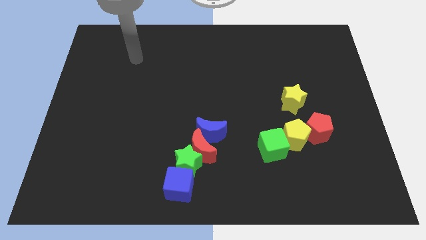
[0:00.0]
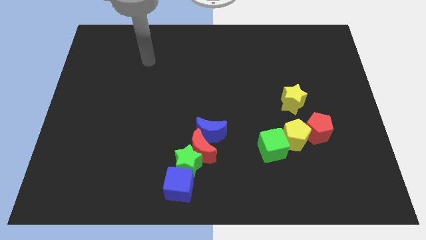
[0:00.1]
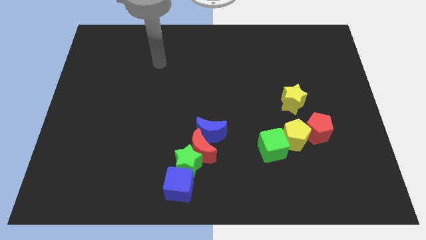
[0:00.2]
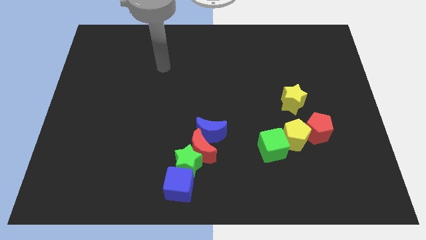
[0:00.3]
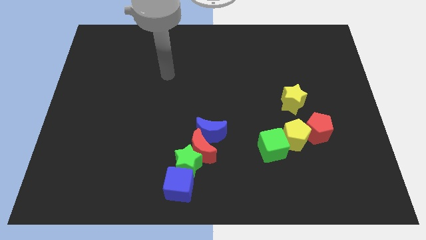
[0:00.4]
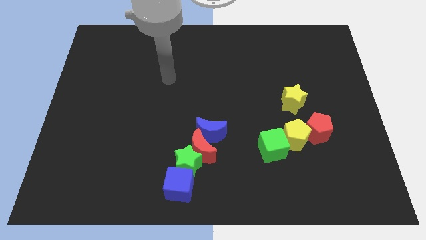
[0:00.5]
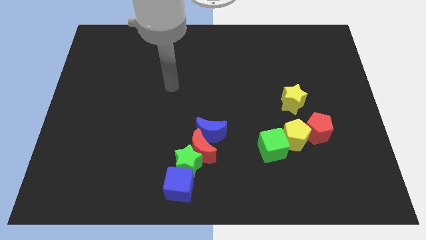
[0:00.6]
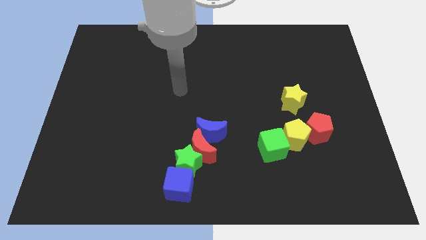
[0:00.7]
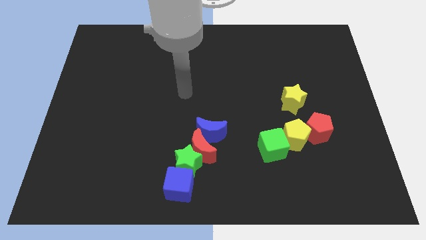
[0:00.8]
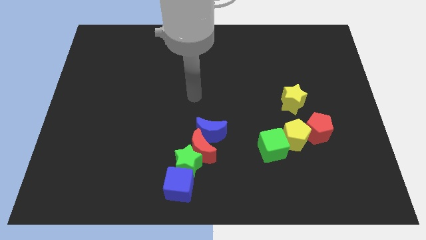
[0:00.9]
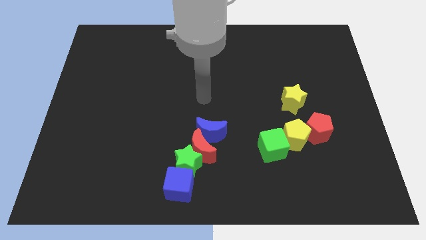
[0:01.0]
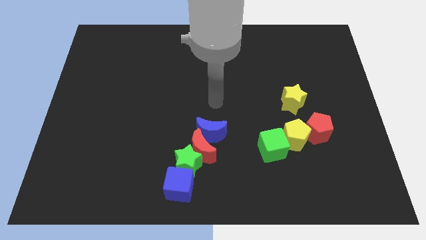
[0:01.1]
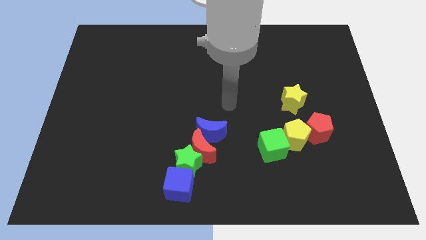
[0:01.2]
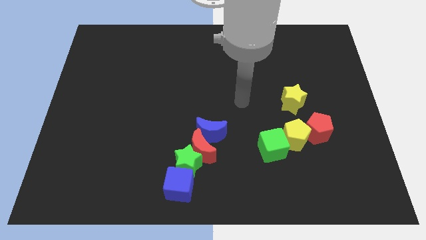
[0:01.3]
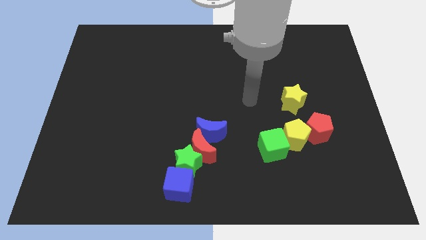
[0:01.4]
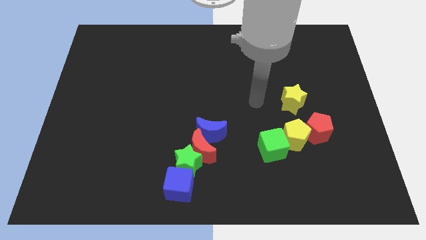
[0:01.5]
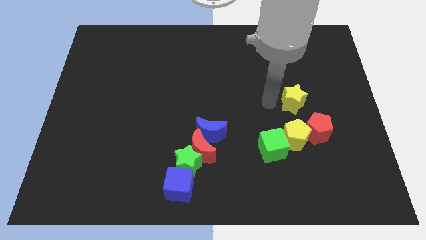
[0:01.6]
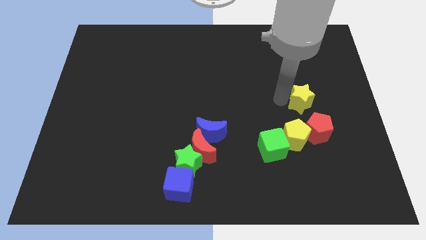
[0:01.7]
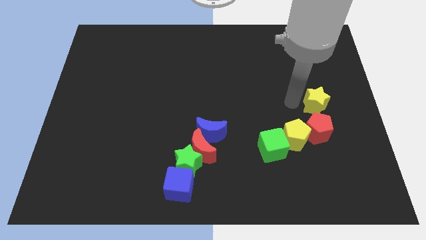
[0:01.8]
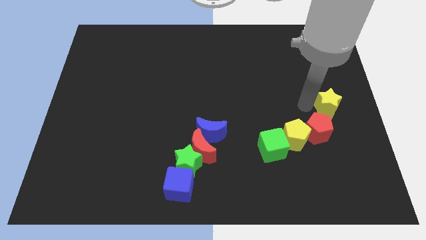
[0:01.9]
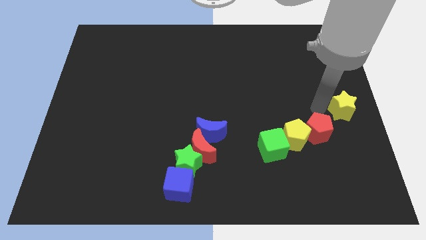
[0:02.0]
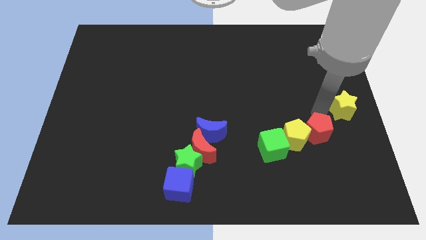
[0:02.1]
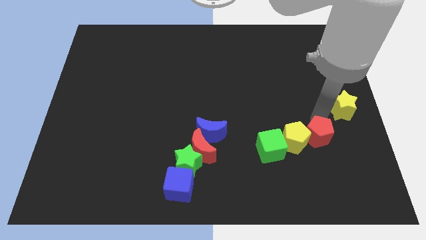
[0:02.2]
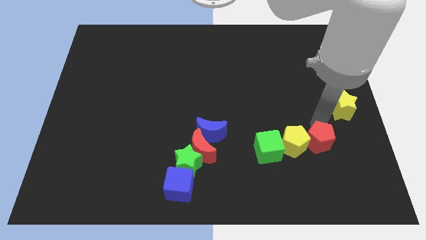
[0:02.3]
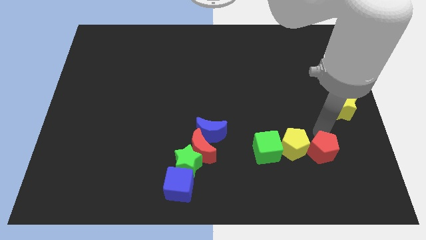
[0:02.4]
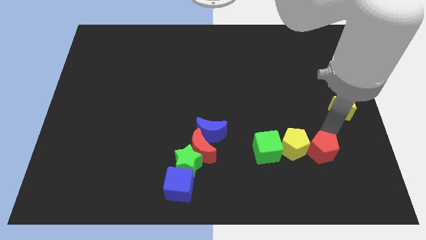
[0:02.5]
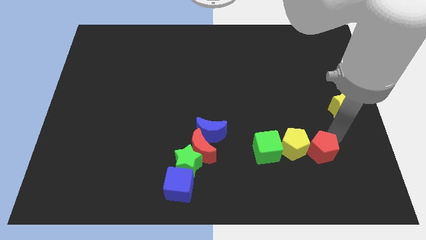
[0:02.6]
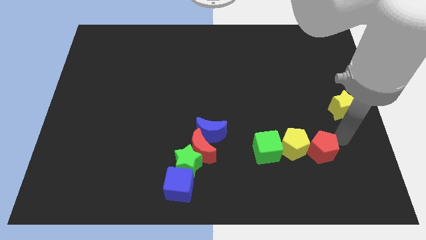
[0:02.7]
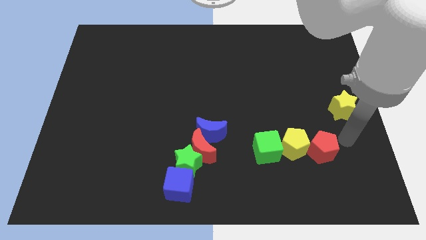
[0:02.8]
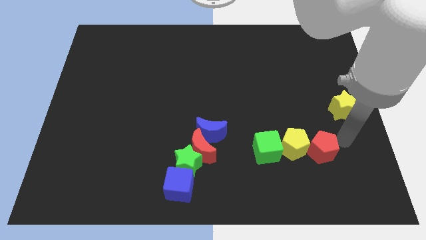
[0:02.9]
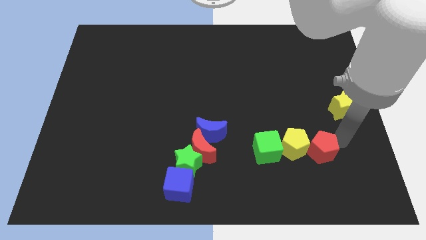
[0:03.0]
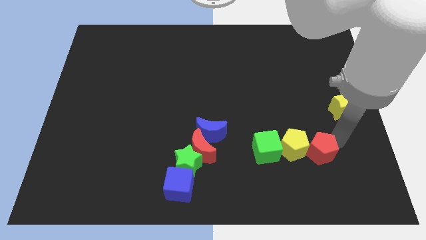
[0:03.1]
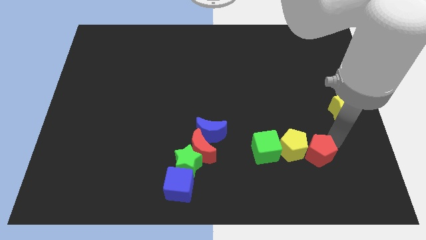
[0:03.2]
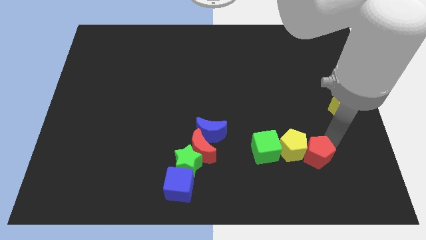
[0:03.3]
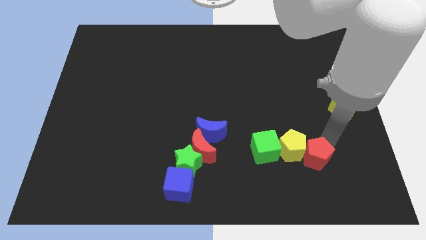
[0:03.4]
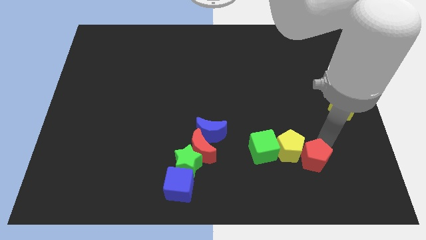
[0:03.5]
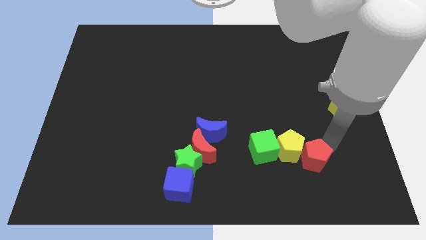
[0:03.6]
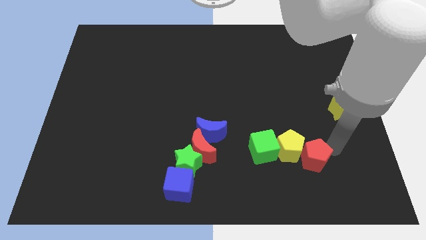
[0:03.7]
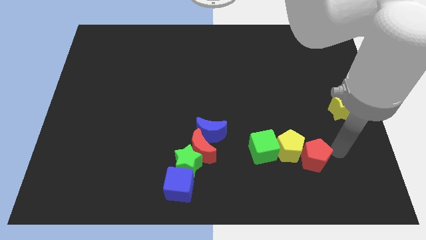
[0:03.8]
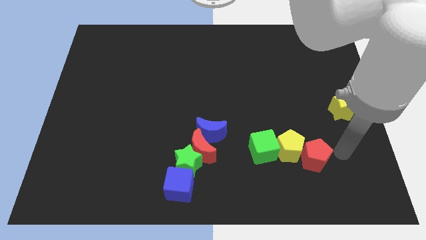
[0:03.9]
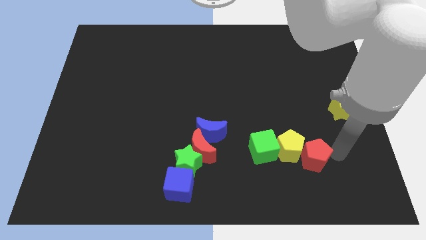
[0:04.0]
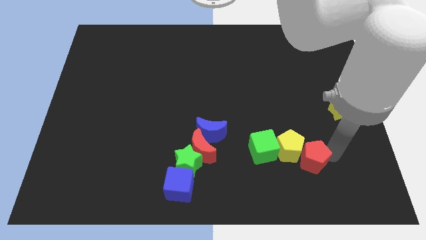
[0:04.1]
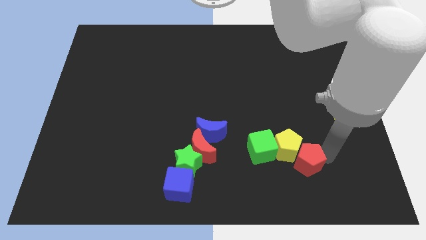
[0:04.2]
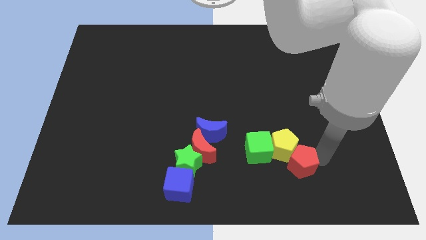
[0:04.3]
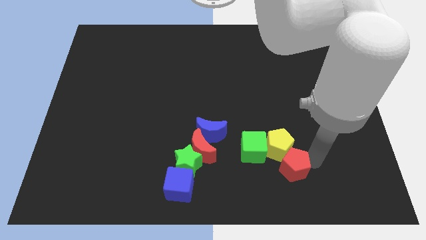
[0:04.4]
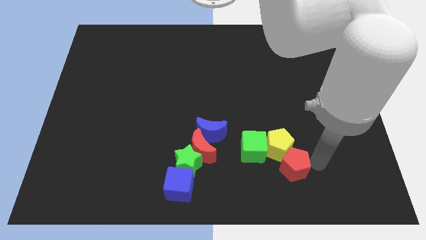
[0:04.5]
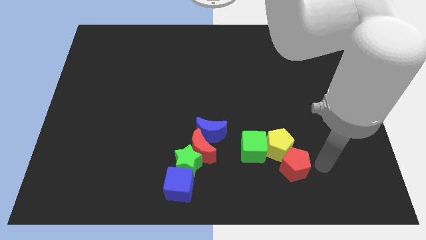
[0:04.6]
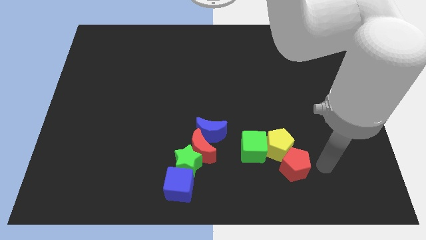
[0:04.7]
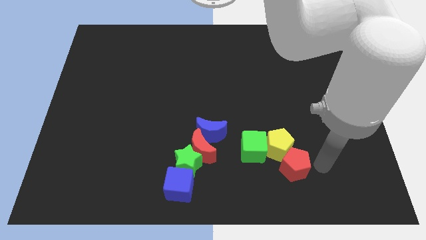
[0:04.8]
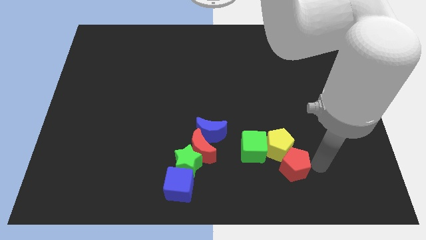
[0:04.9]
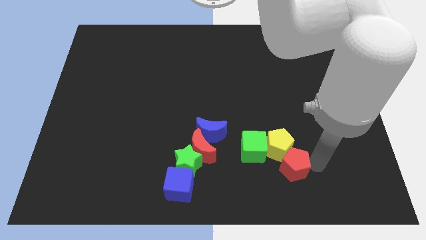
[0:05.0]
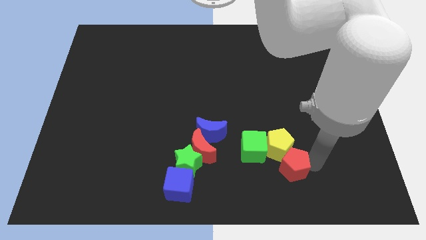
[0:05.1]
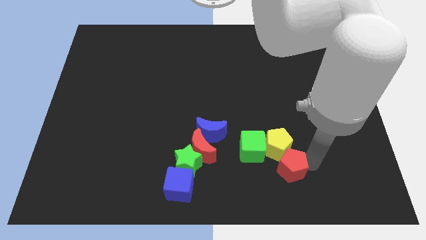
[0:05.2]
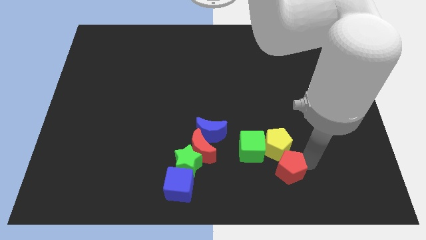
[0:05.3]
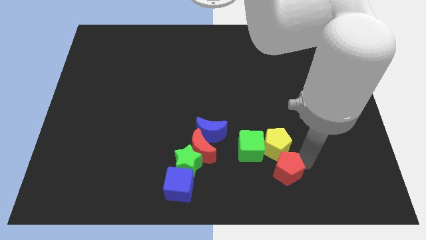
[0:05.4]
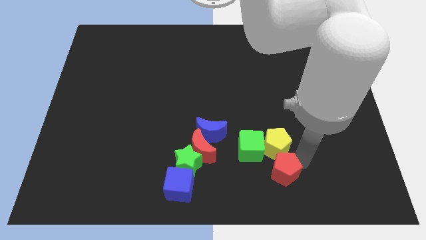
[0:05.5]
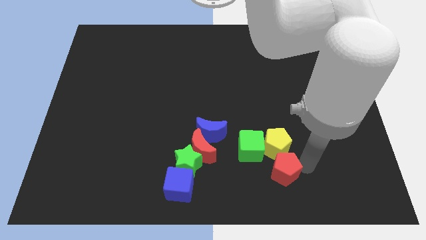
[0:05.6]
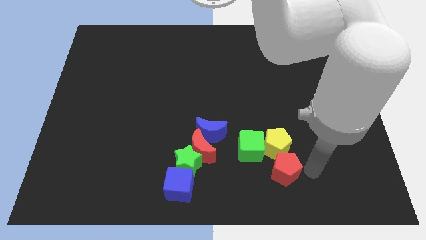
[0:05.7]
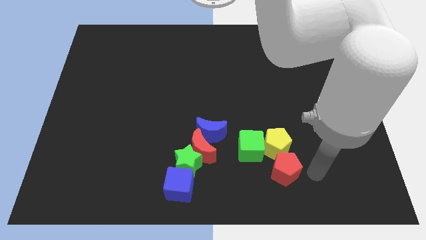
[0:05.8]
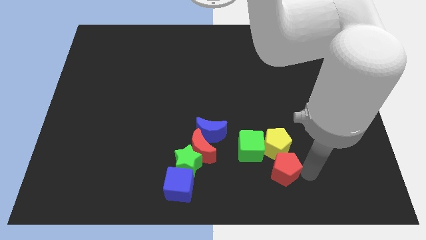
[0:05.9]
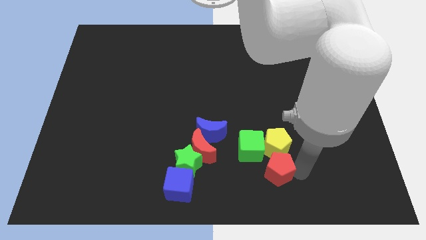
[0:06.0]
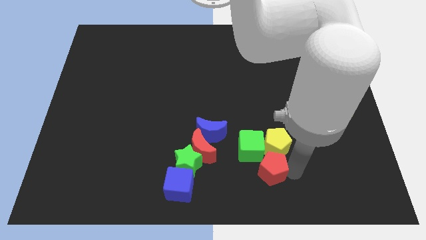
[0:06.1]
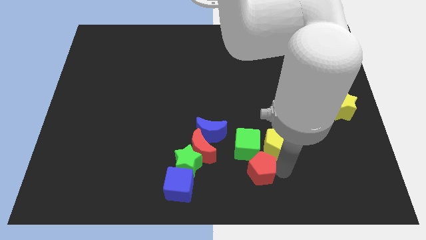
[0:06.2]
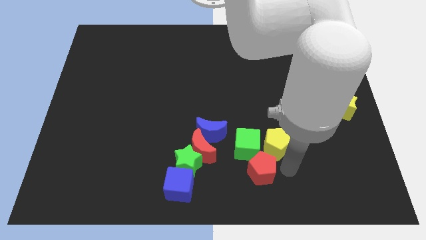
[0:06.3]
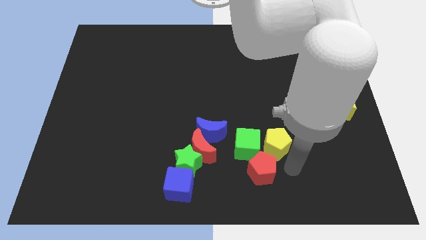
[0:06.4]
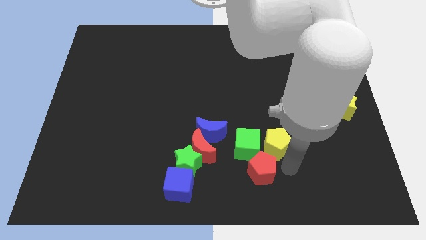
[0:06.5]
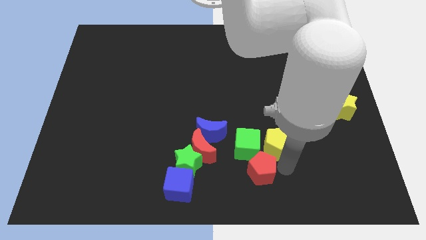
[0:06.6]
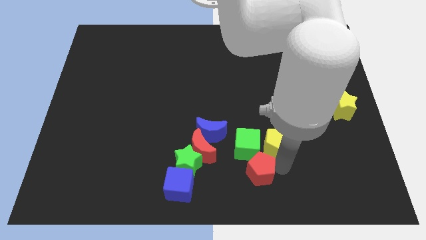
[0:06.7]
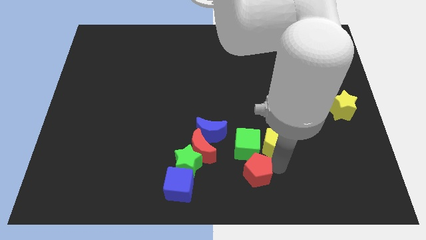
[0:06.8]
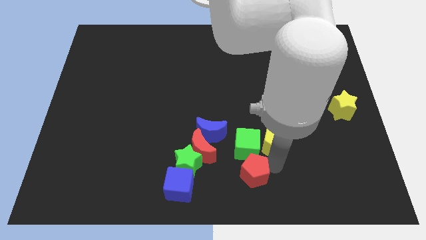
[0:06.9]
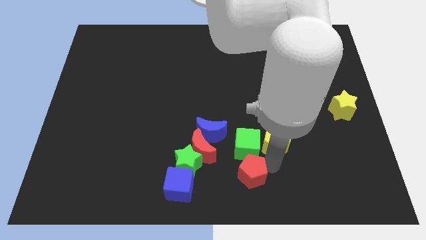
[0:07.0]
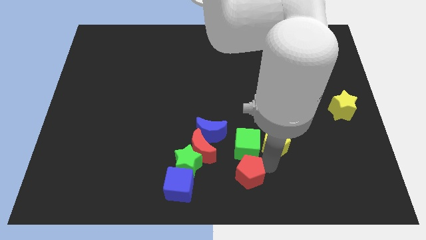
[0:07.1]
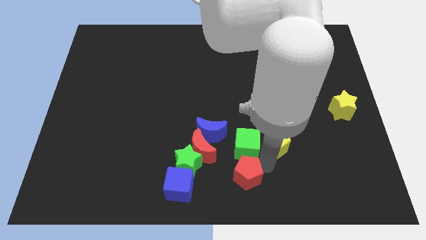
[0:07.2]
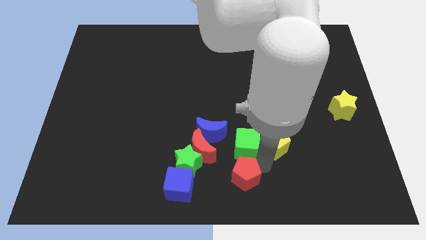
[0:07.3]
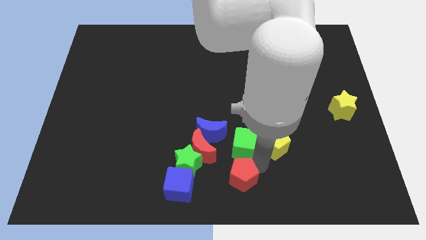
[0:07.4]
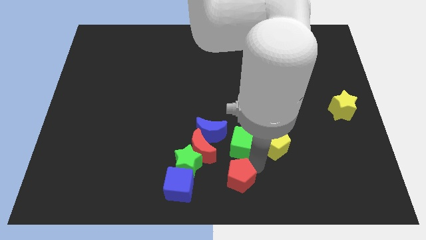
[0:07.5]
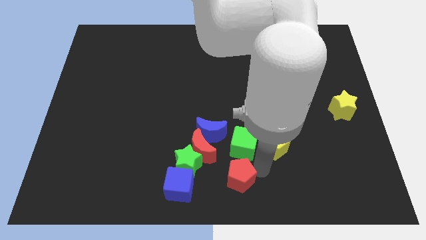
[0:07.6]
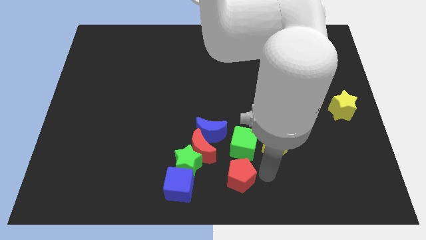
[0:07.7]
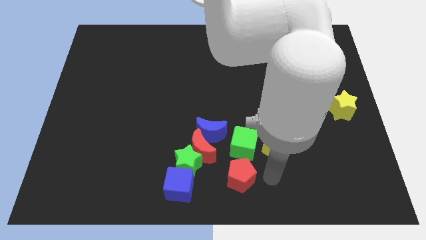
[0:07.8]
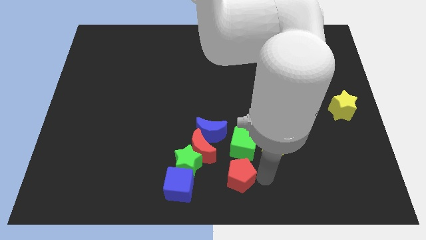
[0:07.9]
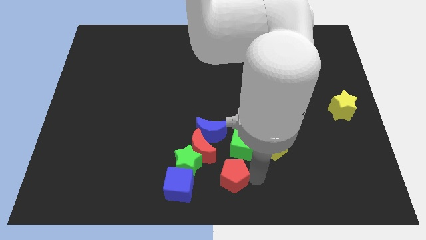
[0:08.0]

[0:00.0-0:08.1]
push the red pentagon to the bottom side of the blue moon
